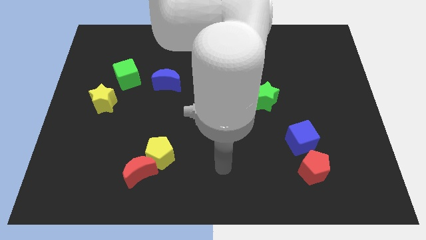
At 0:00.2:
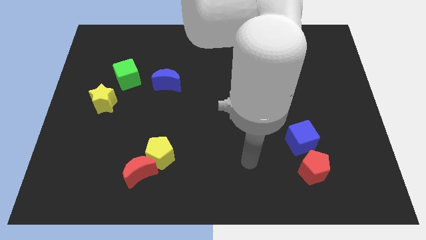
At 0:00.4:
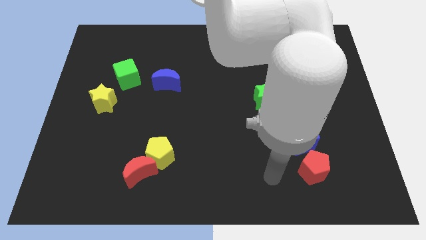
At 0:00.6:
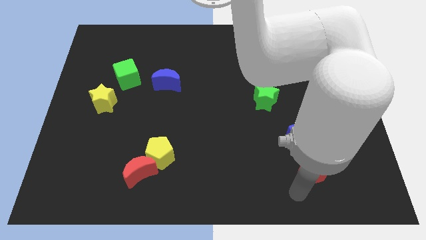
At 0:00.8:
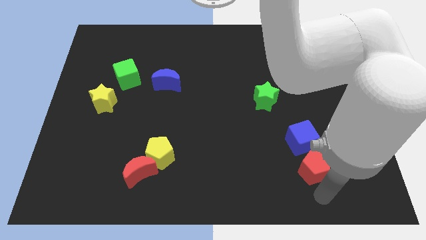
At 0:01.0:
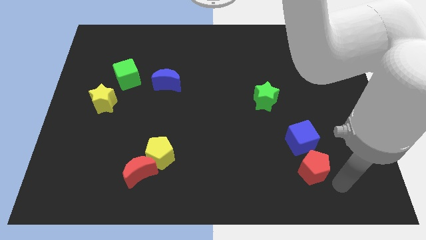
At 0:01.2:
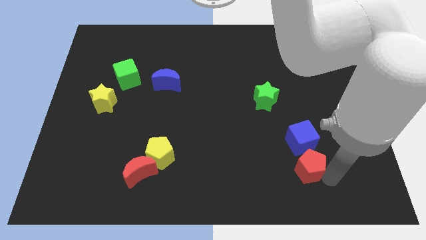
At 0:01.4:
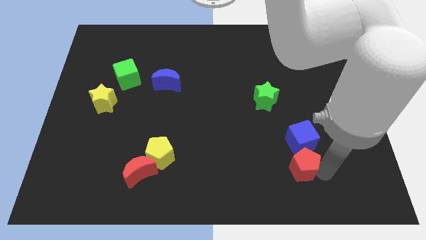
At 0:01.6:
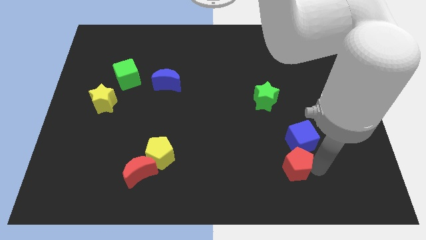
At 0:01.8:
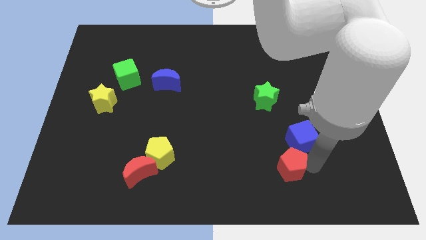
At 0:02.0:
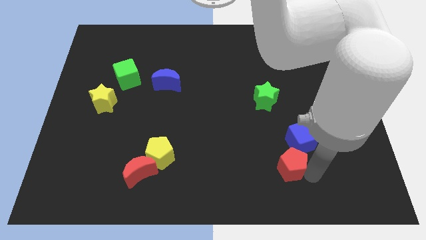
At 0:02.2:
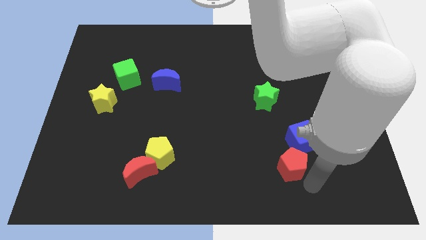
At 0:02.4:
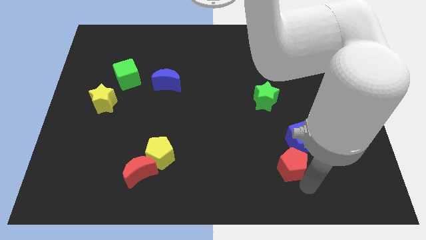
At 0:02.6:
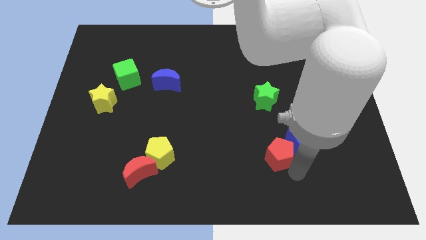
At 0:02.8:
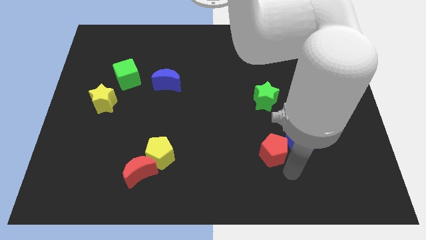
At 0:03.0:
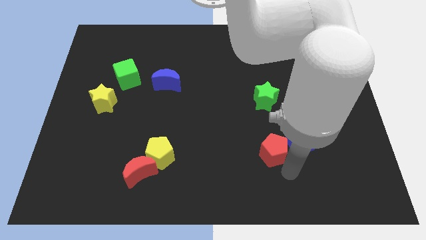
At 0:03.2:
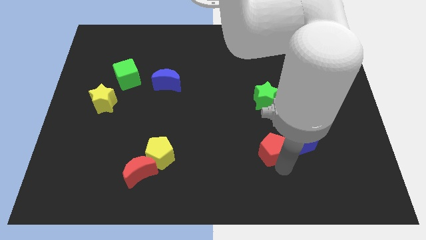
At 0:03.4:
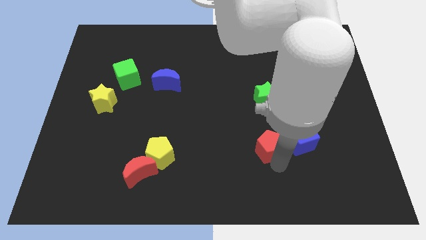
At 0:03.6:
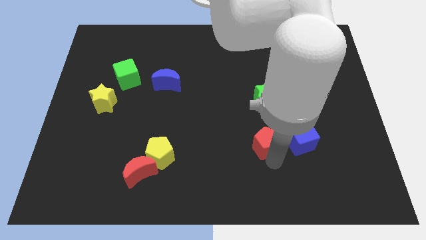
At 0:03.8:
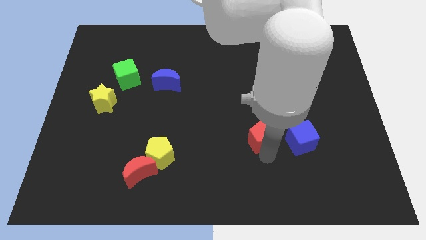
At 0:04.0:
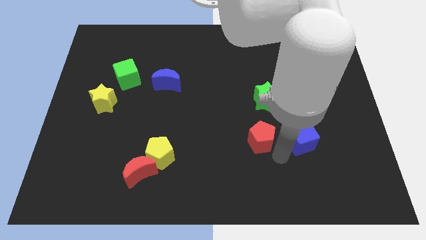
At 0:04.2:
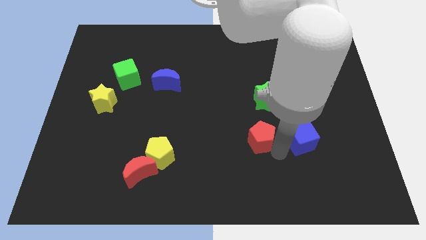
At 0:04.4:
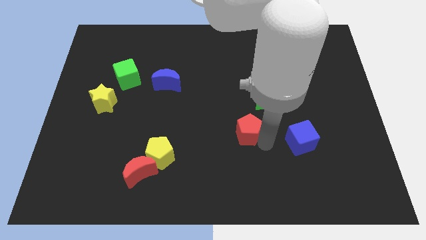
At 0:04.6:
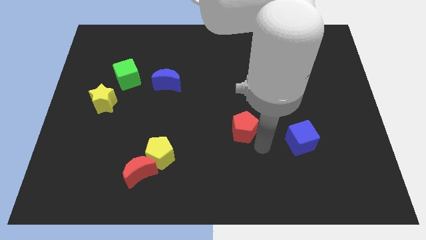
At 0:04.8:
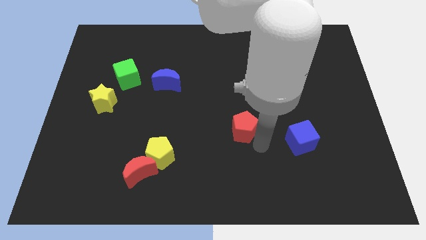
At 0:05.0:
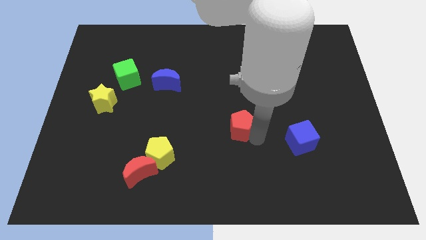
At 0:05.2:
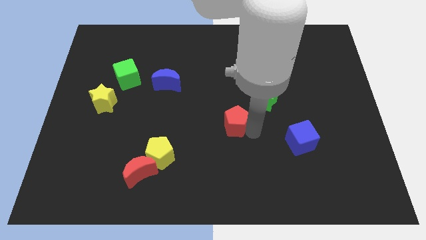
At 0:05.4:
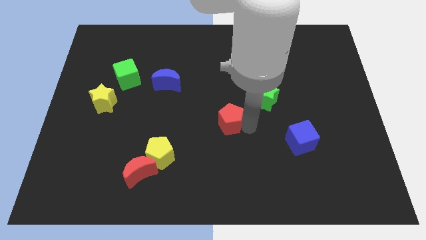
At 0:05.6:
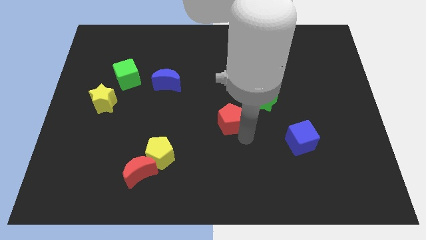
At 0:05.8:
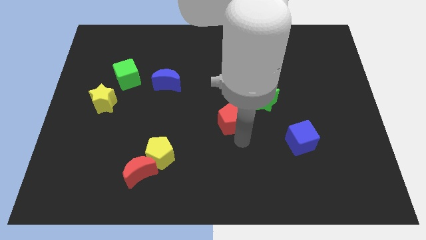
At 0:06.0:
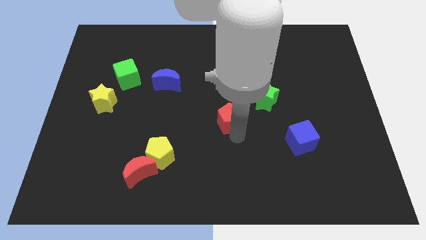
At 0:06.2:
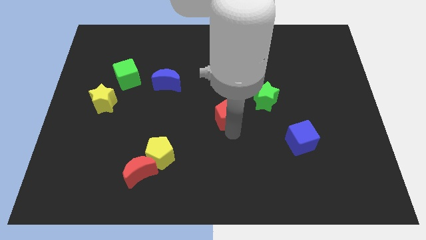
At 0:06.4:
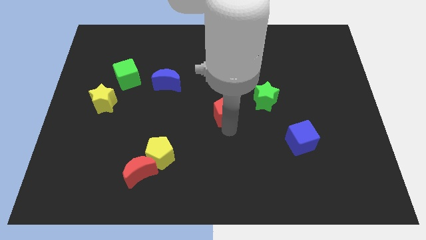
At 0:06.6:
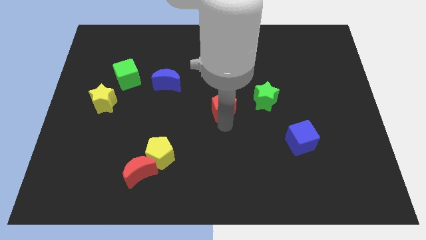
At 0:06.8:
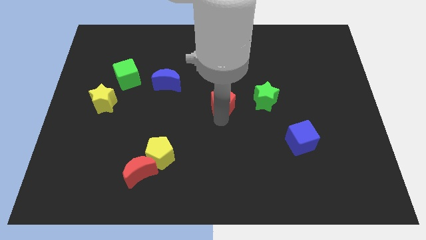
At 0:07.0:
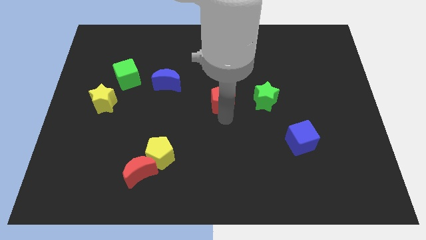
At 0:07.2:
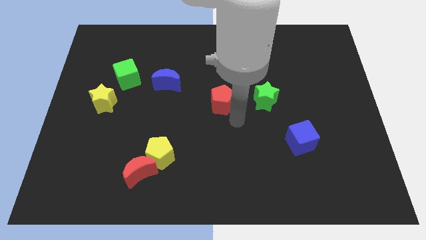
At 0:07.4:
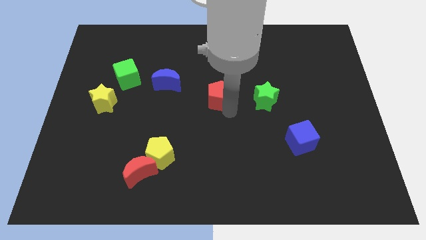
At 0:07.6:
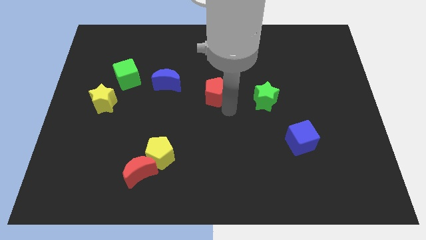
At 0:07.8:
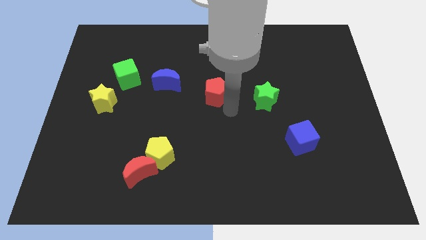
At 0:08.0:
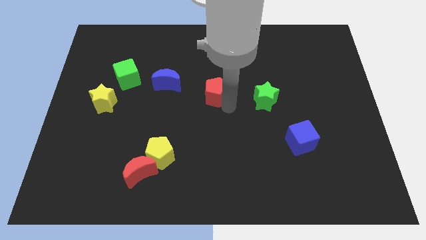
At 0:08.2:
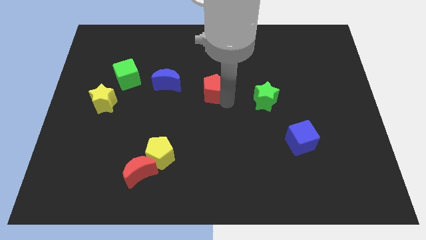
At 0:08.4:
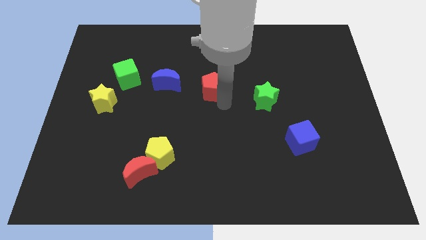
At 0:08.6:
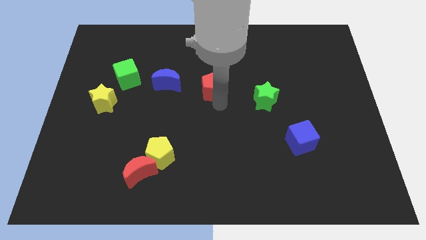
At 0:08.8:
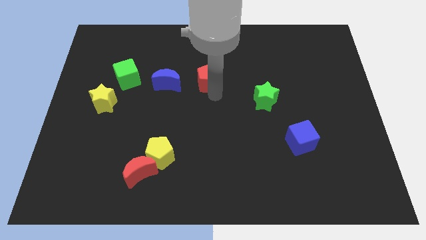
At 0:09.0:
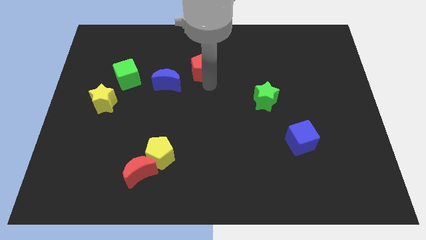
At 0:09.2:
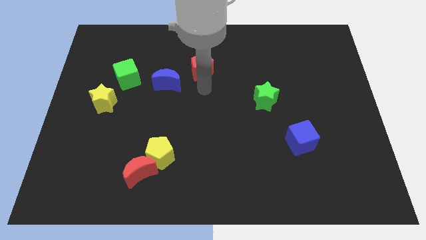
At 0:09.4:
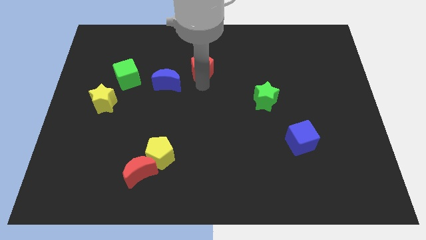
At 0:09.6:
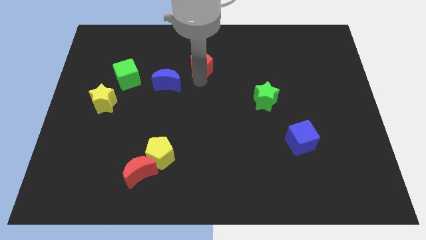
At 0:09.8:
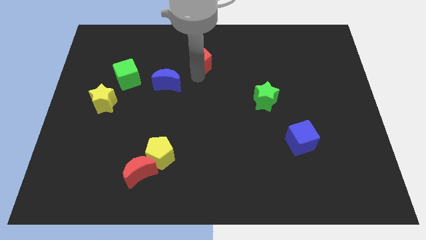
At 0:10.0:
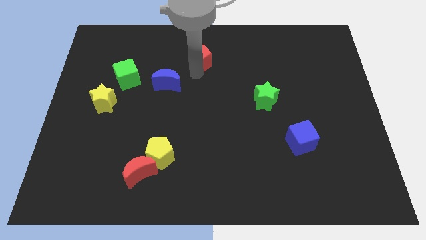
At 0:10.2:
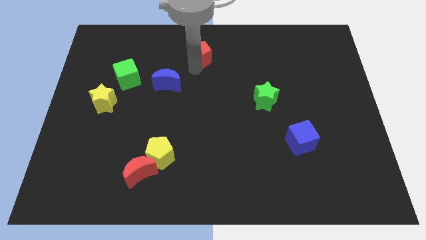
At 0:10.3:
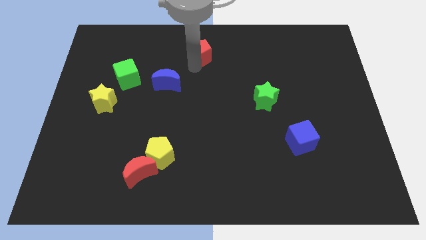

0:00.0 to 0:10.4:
move the red pentagon to the top

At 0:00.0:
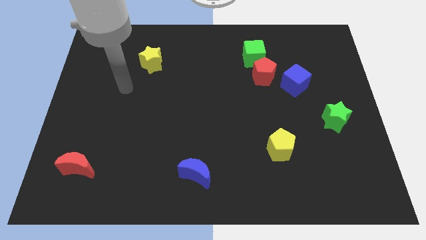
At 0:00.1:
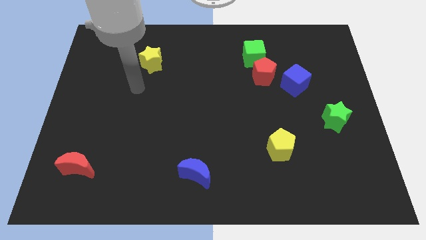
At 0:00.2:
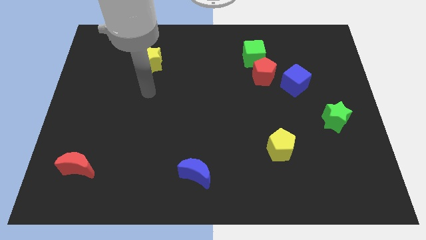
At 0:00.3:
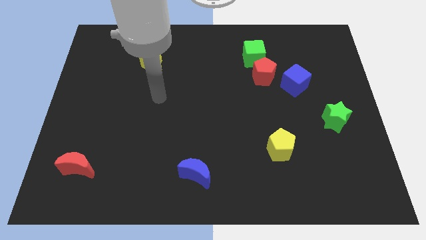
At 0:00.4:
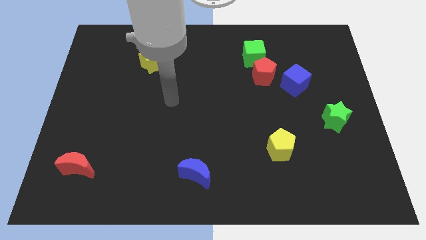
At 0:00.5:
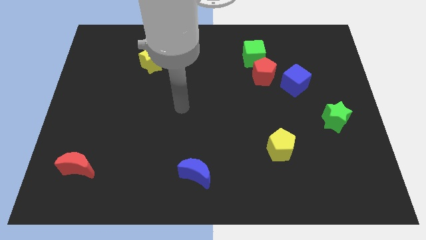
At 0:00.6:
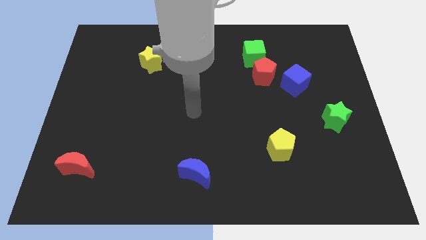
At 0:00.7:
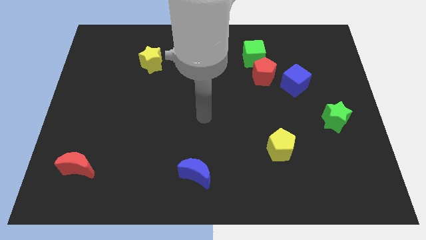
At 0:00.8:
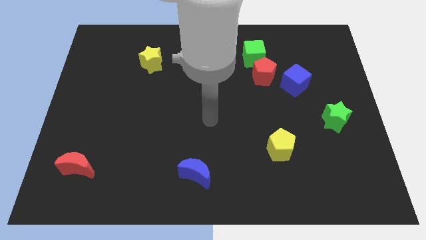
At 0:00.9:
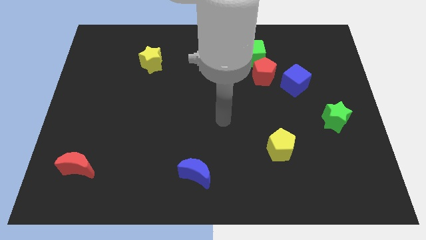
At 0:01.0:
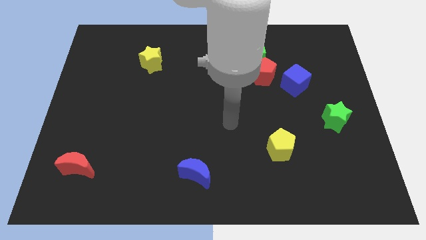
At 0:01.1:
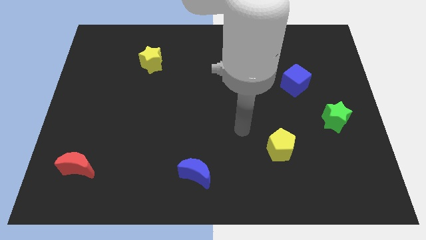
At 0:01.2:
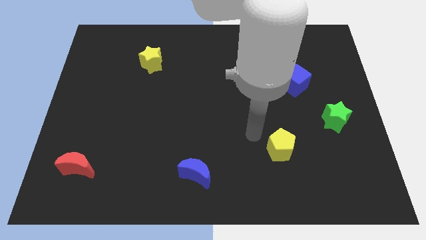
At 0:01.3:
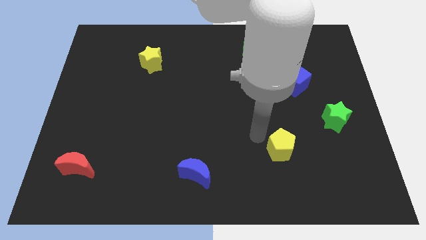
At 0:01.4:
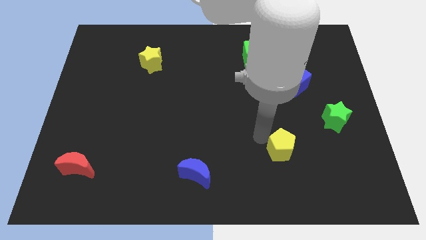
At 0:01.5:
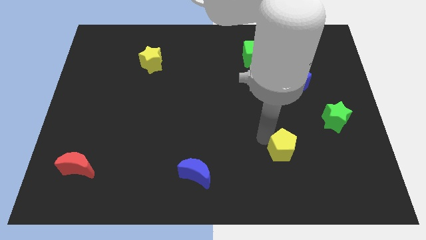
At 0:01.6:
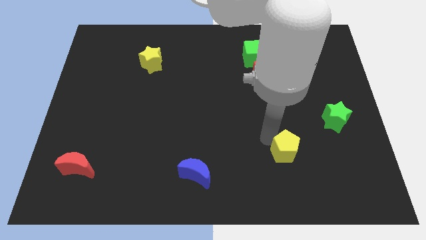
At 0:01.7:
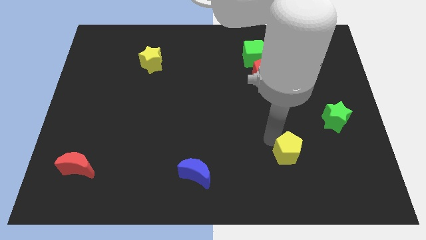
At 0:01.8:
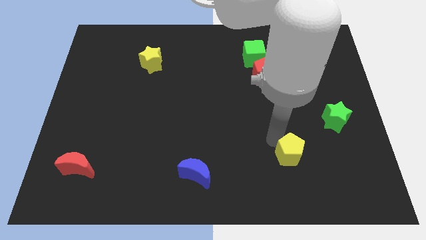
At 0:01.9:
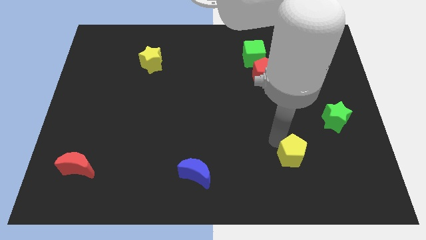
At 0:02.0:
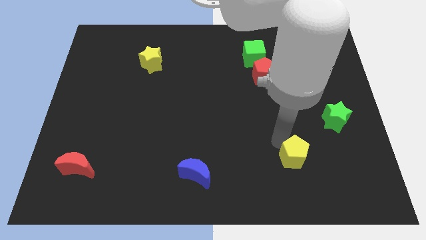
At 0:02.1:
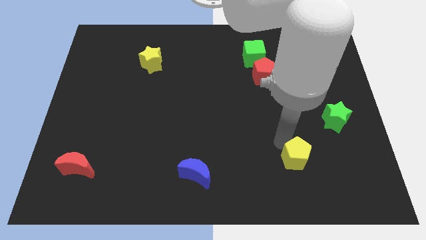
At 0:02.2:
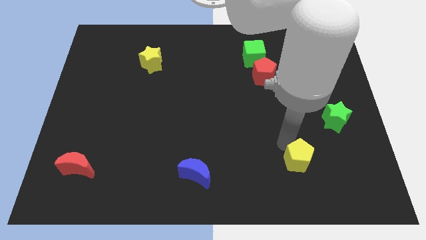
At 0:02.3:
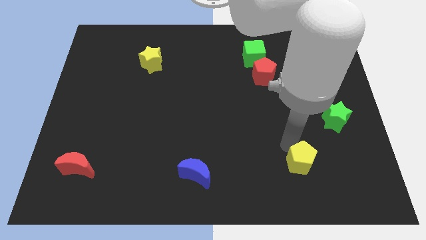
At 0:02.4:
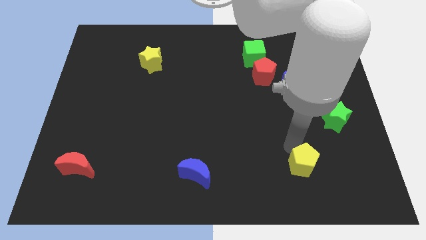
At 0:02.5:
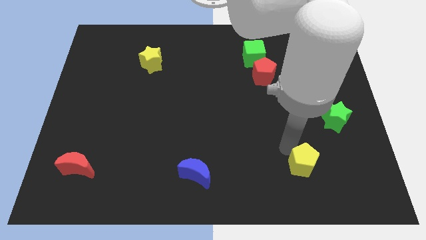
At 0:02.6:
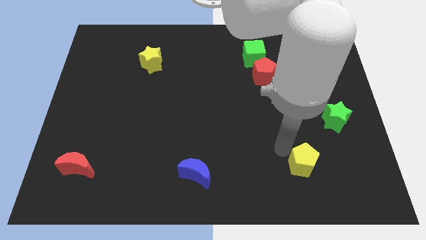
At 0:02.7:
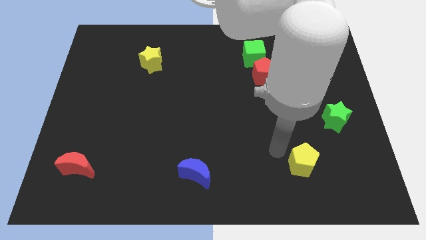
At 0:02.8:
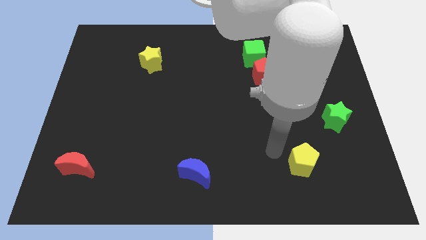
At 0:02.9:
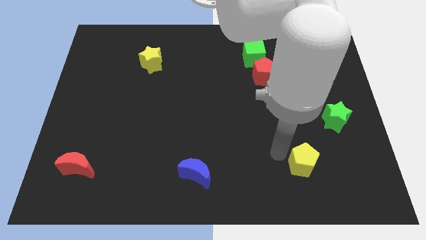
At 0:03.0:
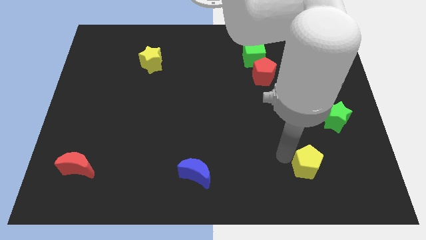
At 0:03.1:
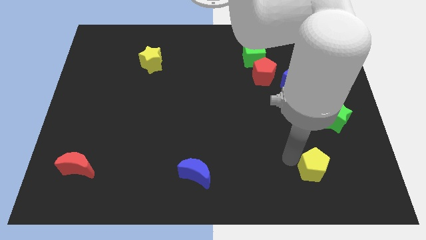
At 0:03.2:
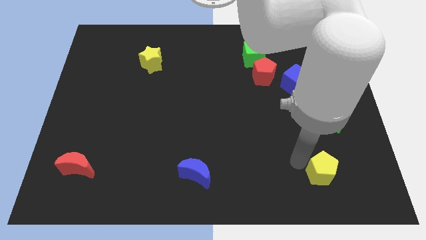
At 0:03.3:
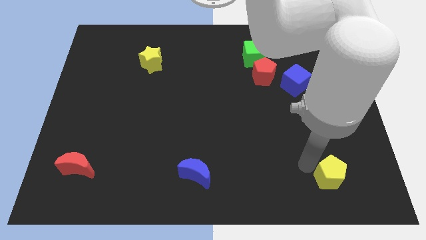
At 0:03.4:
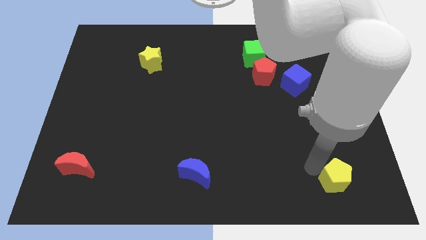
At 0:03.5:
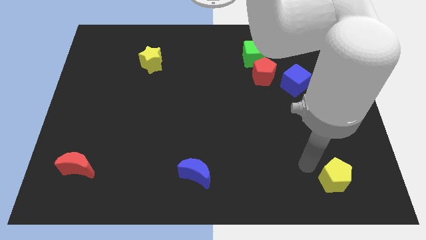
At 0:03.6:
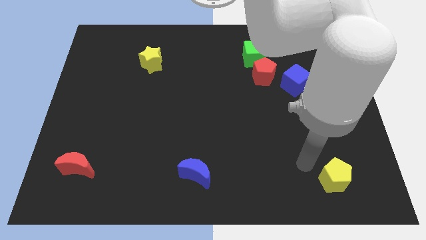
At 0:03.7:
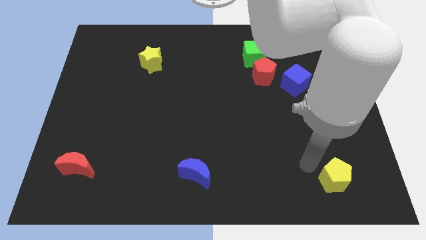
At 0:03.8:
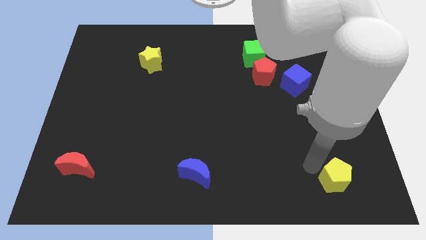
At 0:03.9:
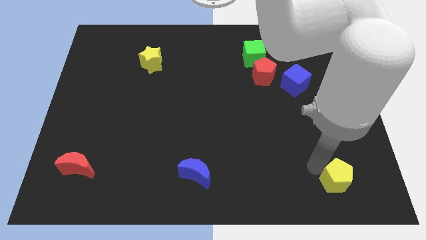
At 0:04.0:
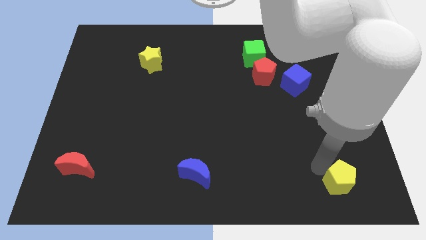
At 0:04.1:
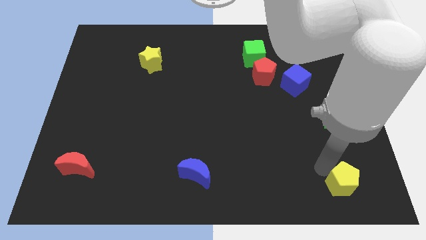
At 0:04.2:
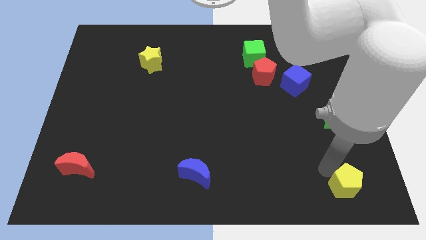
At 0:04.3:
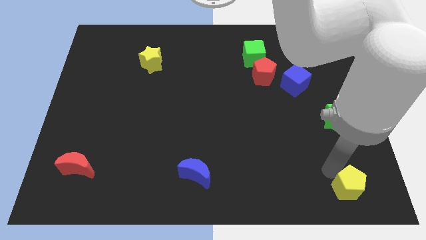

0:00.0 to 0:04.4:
move the yellow pentagon to the bottom right of the board
